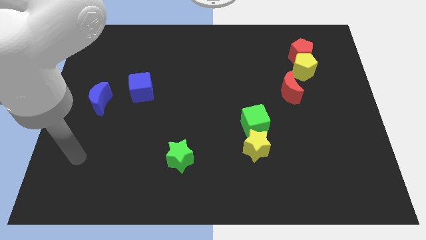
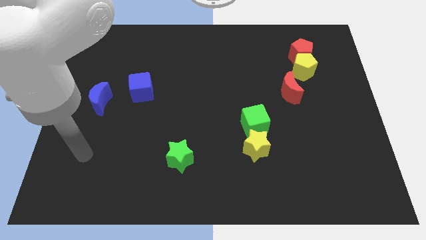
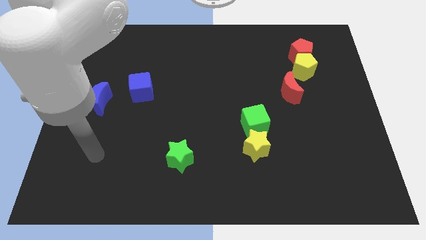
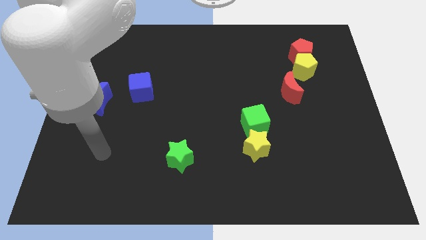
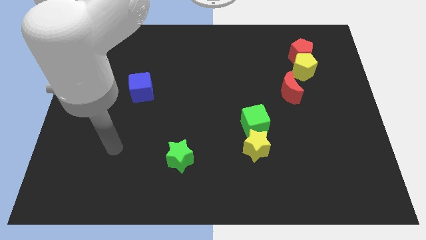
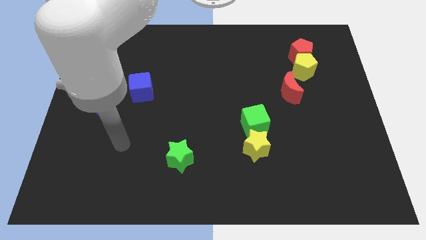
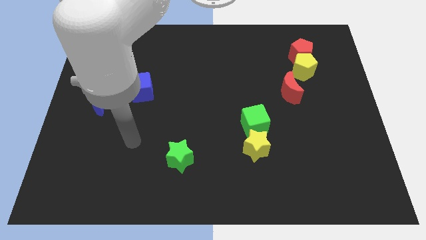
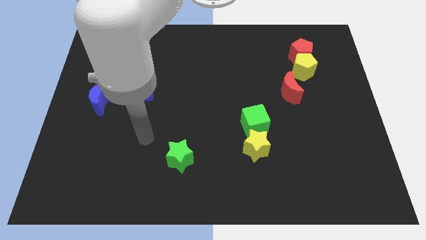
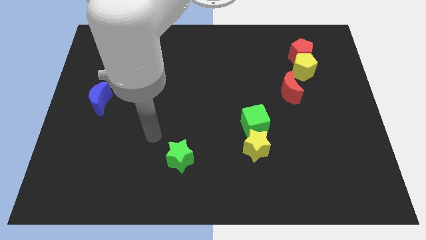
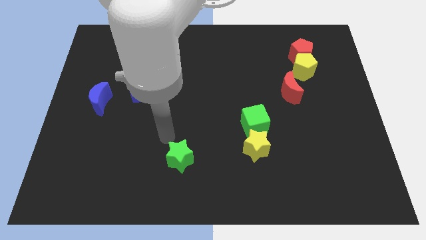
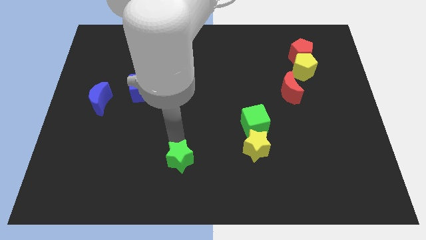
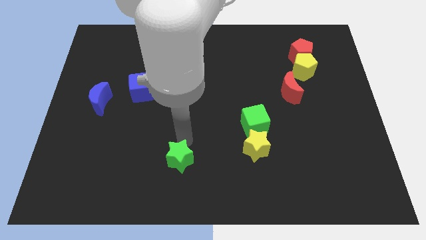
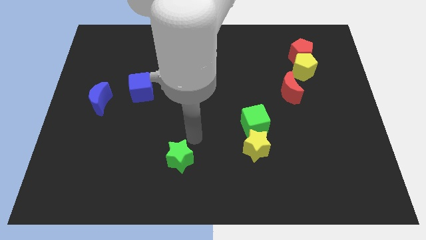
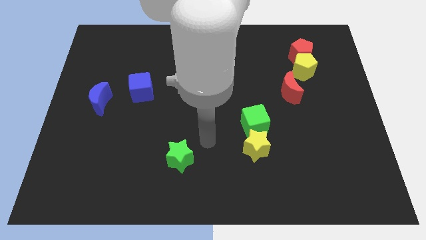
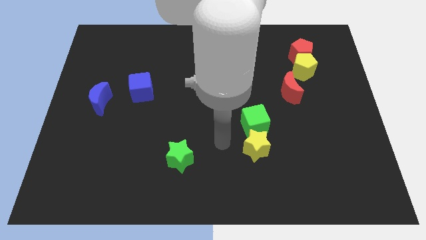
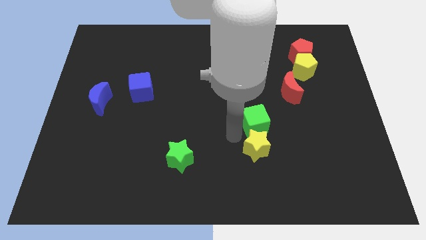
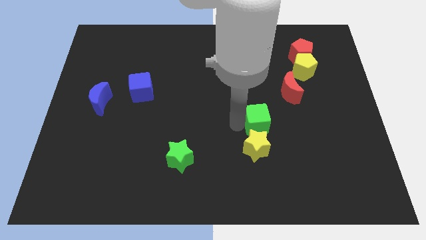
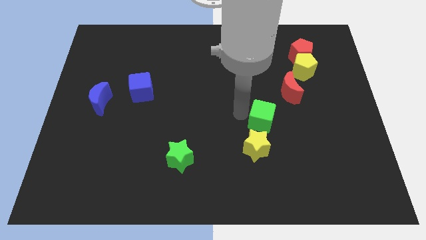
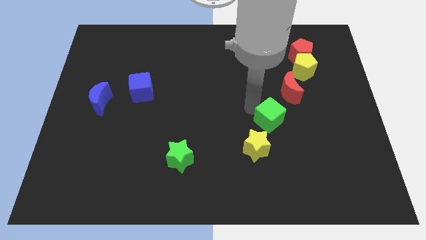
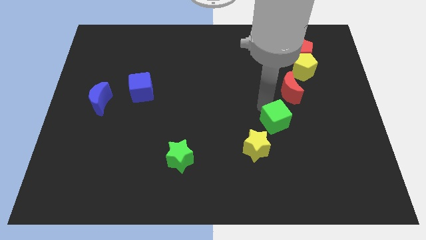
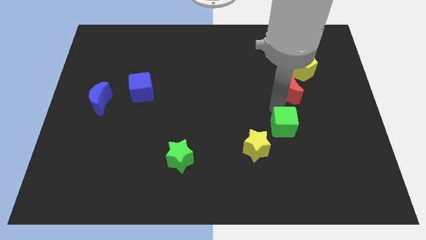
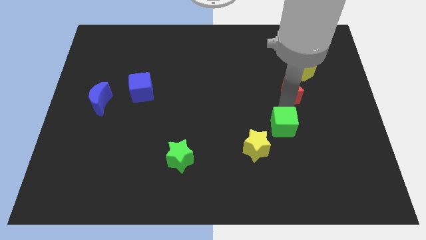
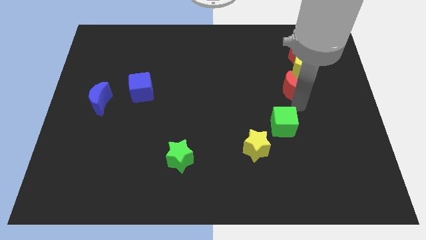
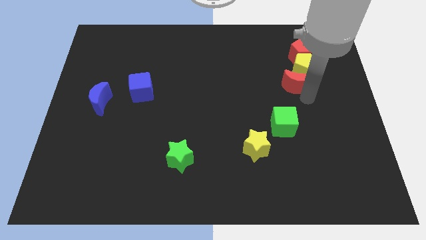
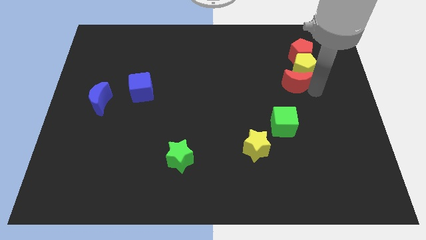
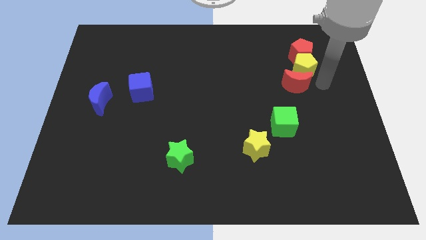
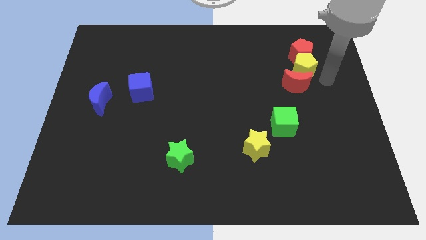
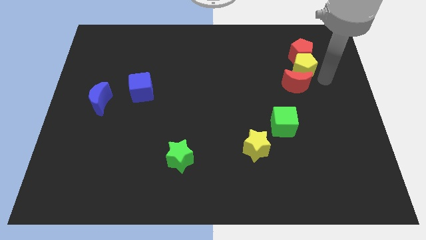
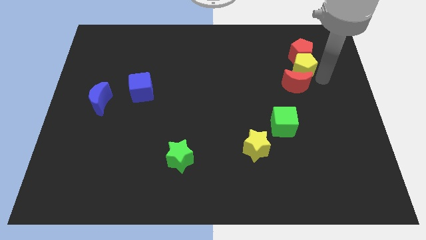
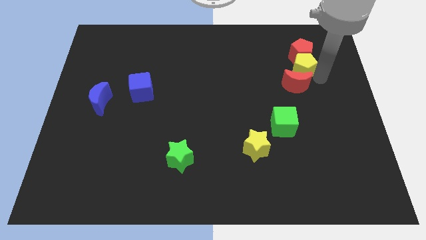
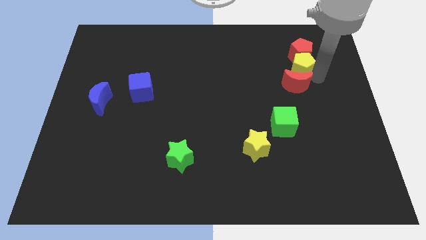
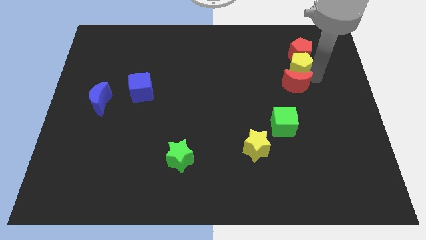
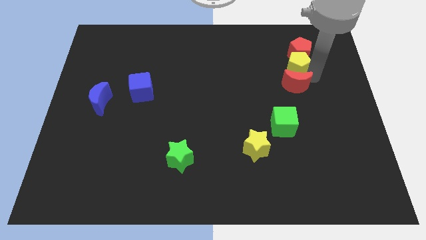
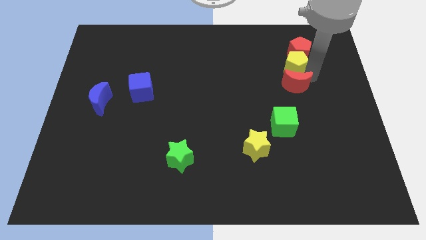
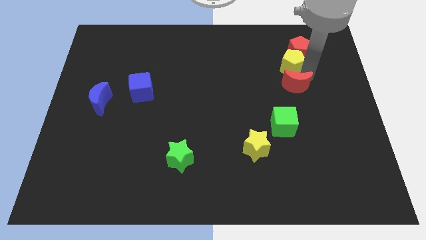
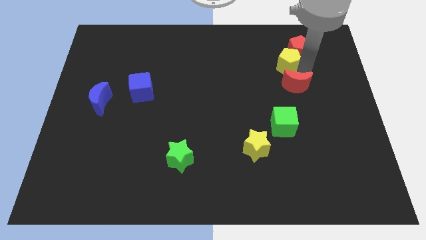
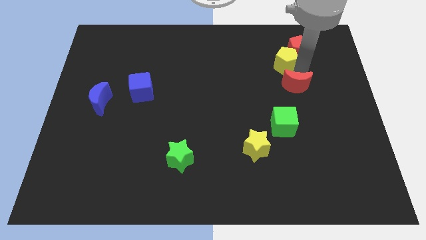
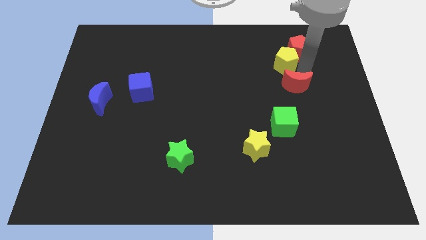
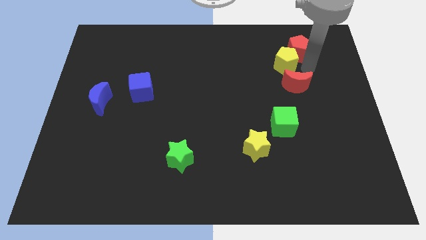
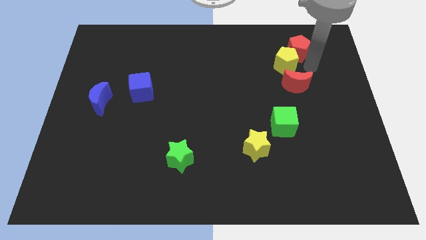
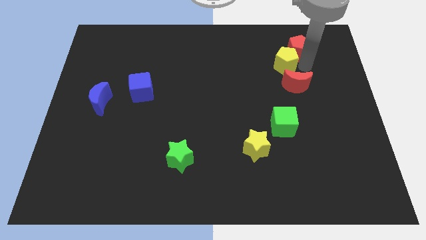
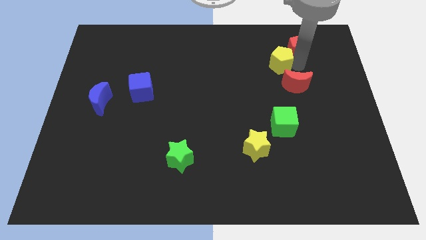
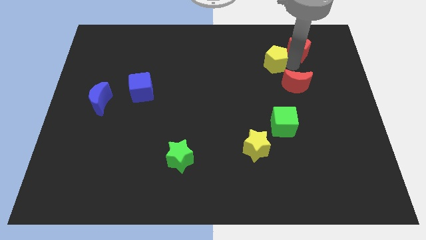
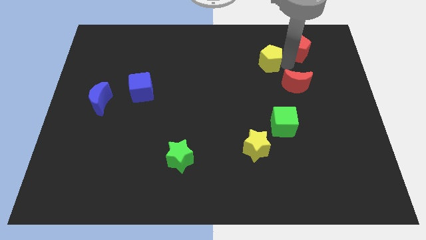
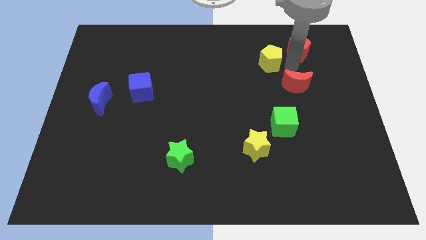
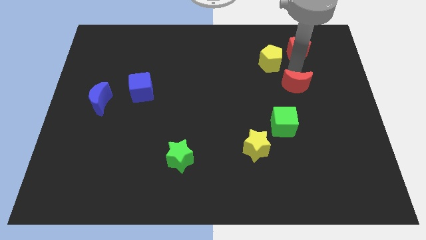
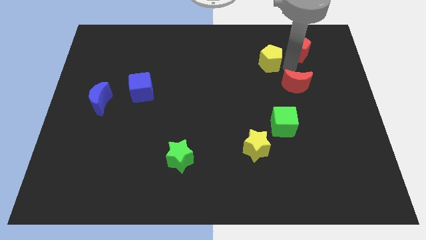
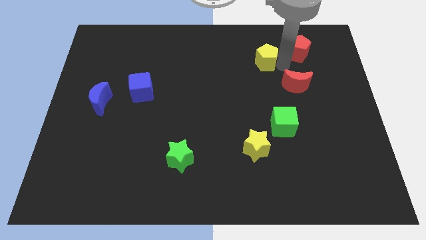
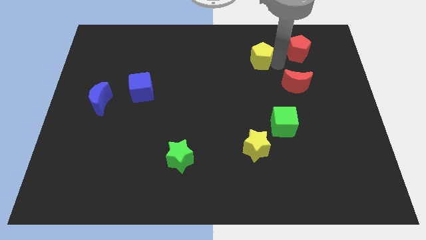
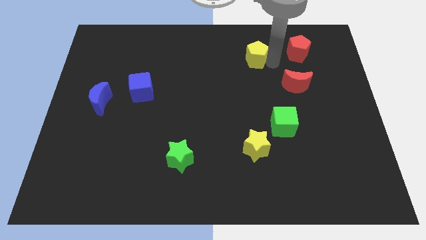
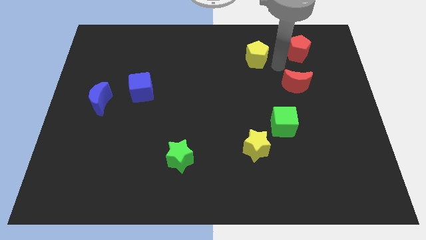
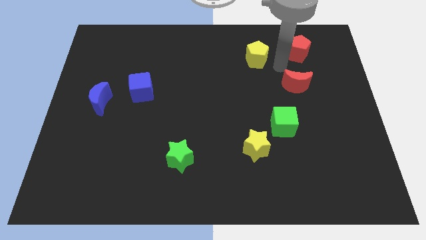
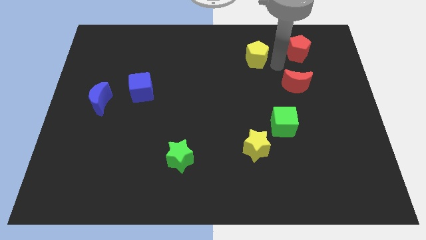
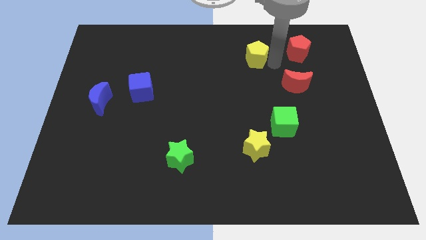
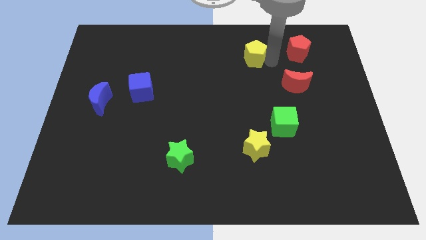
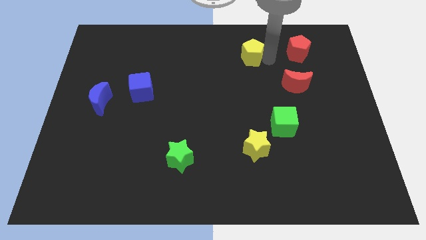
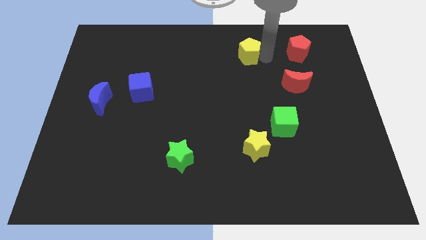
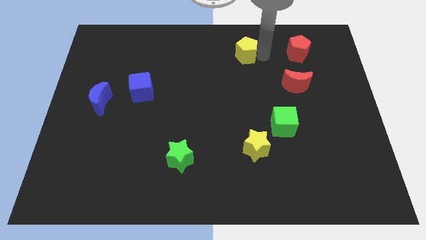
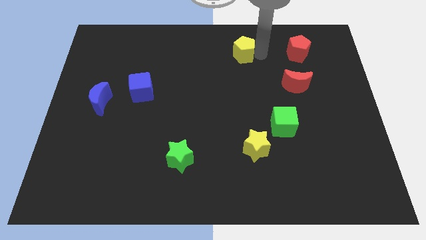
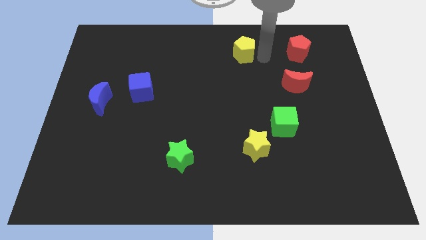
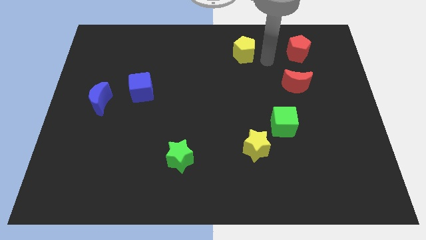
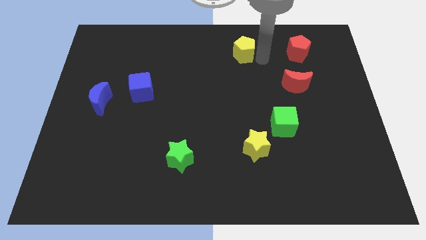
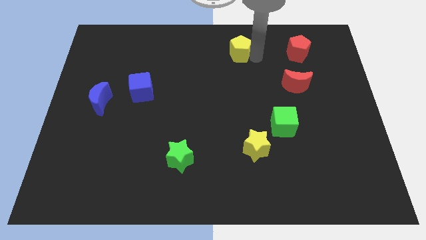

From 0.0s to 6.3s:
put the yellow pentagon to the towards your base
